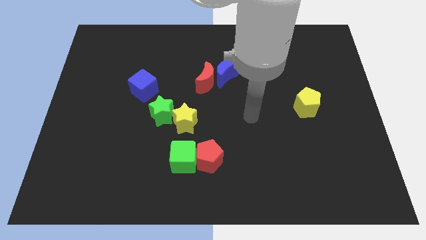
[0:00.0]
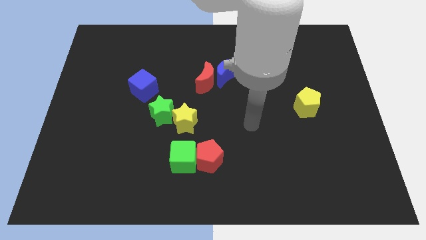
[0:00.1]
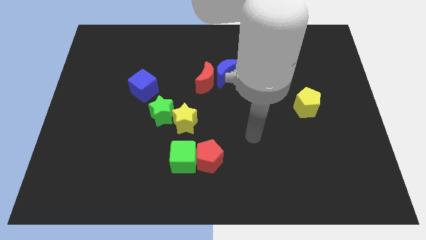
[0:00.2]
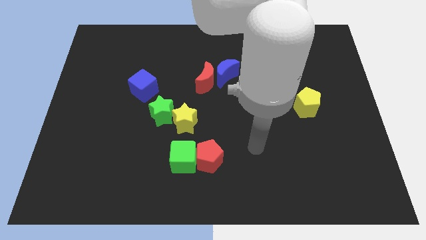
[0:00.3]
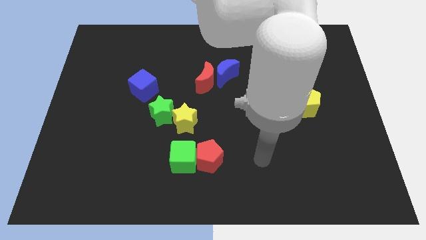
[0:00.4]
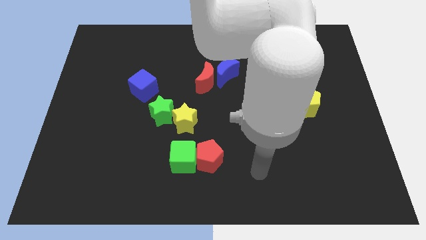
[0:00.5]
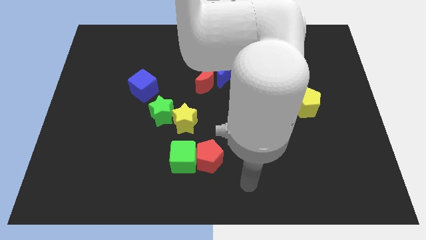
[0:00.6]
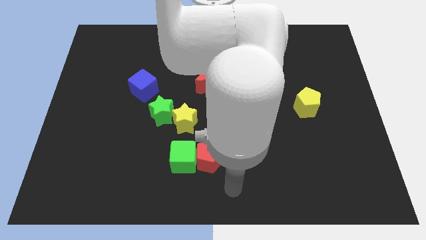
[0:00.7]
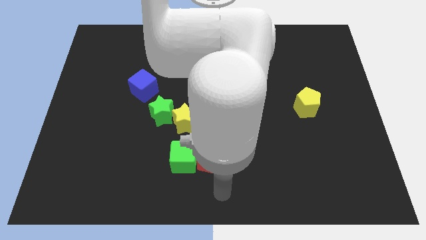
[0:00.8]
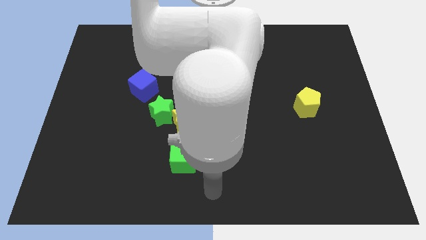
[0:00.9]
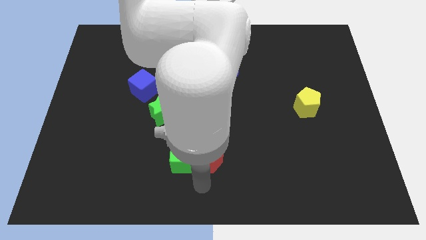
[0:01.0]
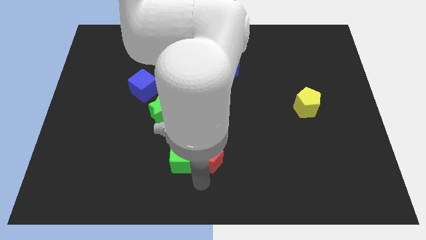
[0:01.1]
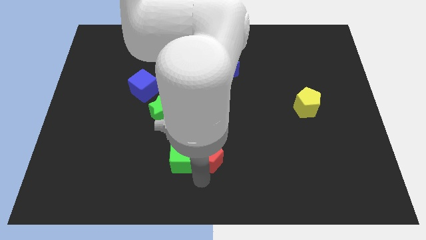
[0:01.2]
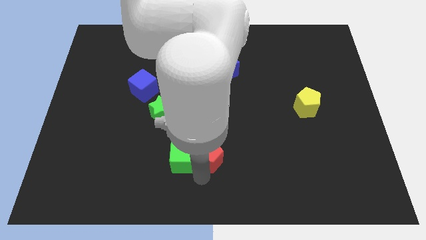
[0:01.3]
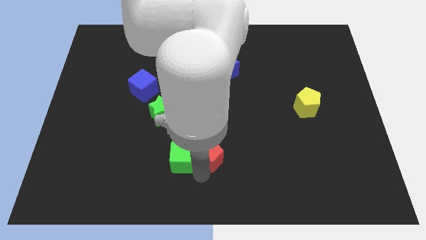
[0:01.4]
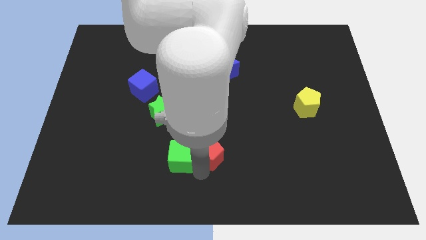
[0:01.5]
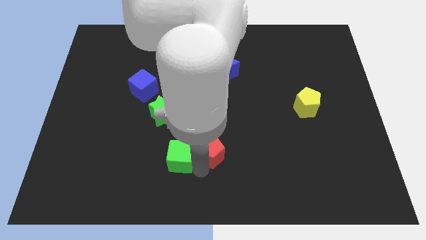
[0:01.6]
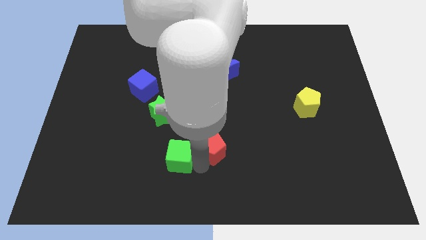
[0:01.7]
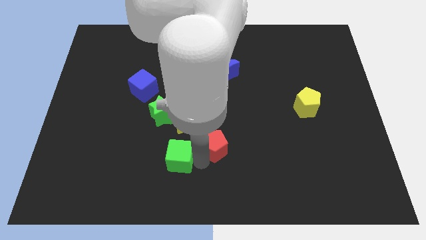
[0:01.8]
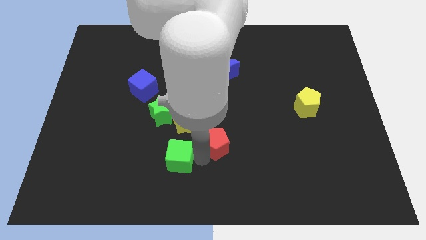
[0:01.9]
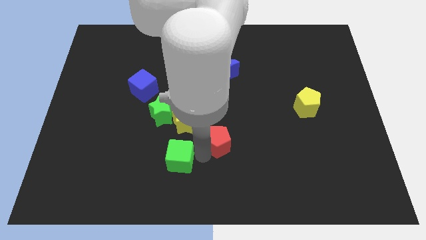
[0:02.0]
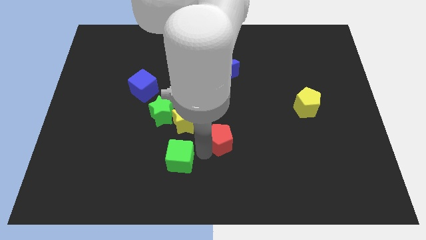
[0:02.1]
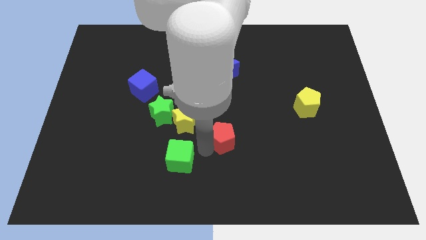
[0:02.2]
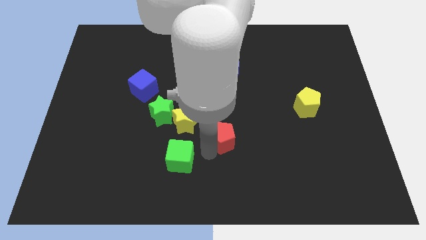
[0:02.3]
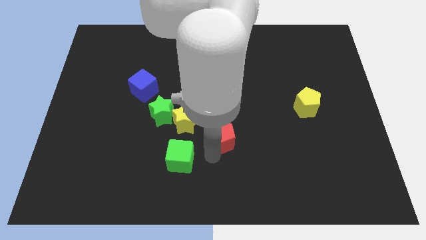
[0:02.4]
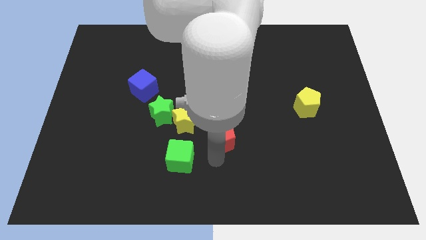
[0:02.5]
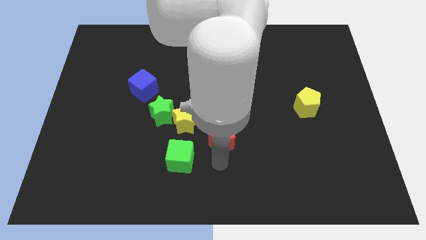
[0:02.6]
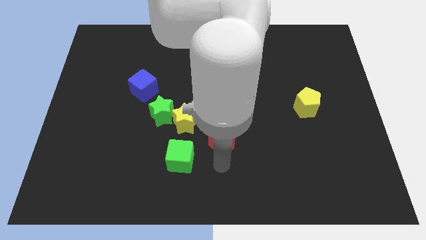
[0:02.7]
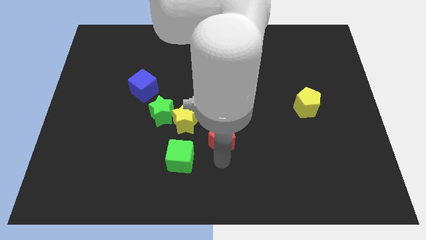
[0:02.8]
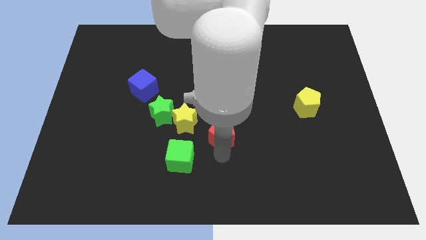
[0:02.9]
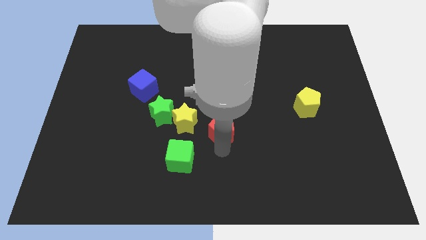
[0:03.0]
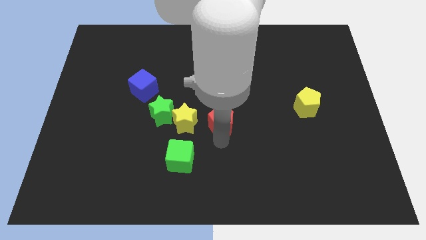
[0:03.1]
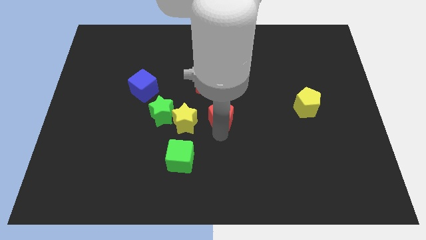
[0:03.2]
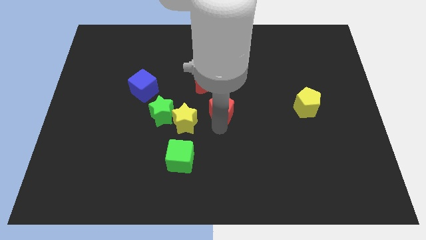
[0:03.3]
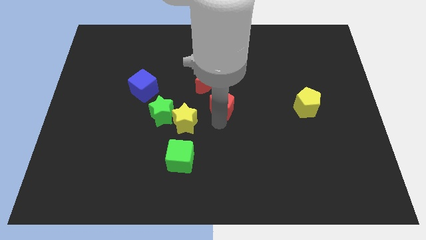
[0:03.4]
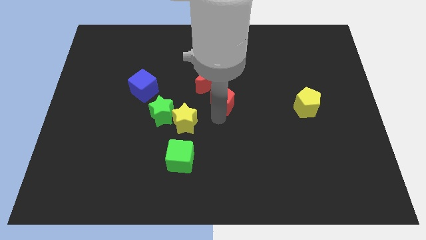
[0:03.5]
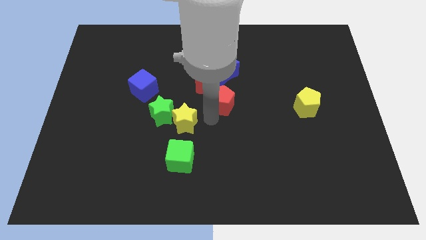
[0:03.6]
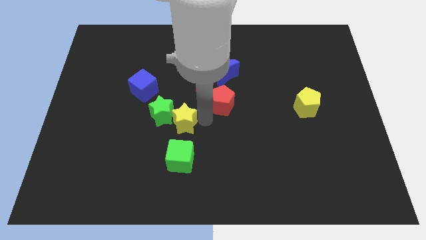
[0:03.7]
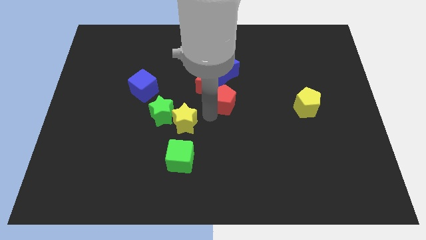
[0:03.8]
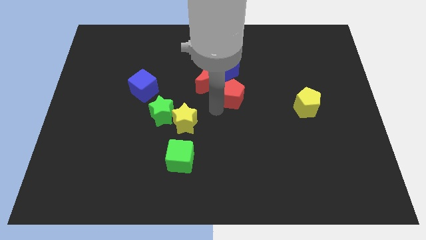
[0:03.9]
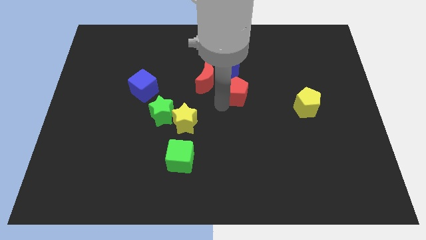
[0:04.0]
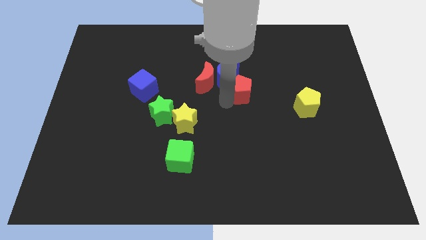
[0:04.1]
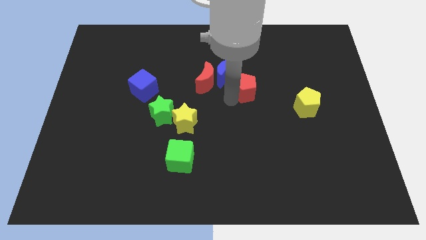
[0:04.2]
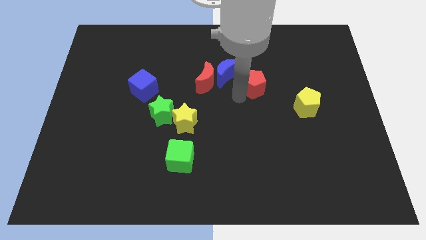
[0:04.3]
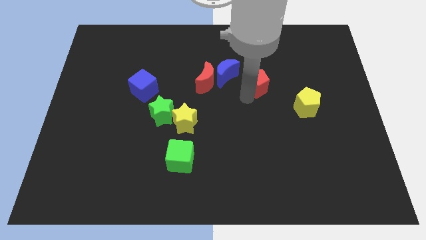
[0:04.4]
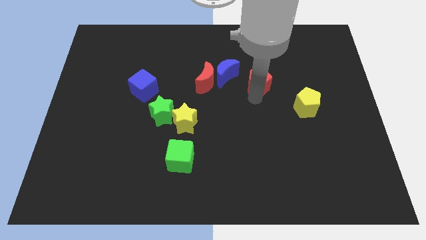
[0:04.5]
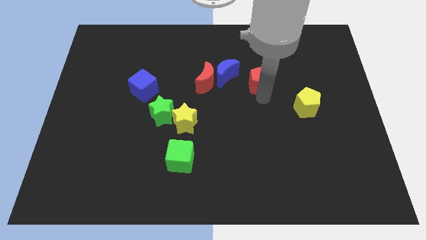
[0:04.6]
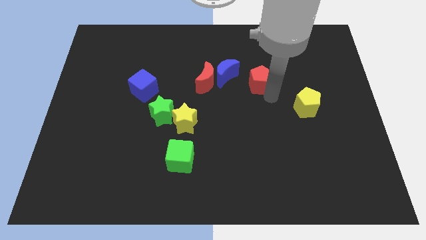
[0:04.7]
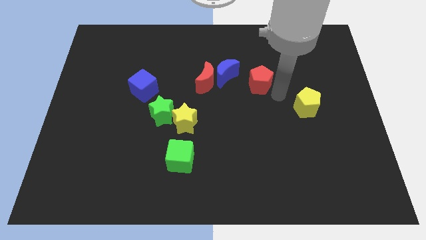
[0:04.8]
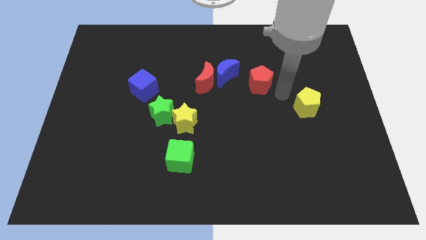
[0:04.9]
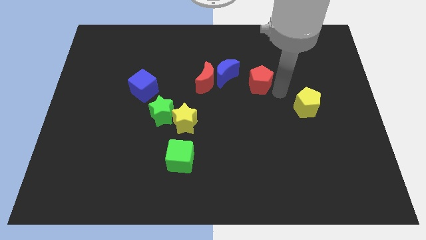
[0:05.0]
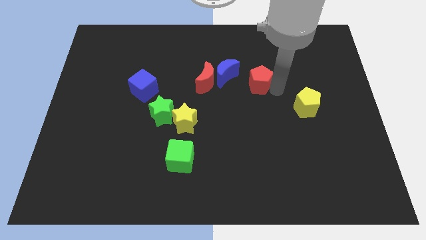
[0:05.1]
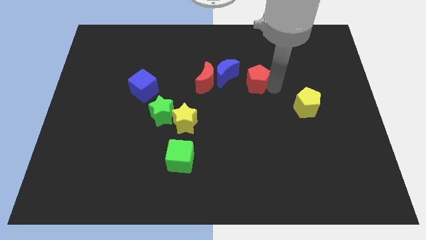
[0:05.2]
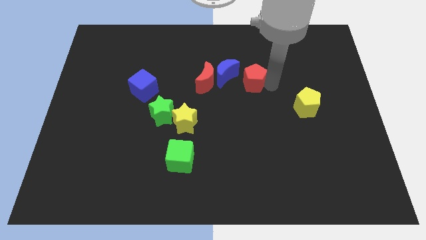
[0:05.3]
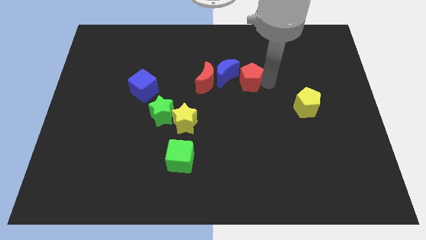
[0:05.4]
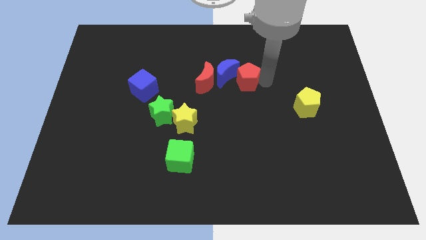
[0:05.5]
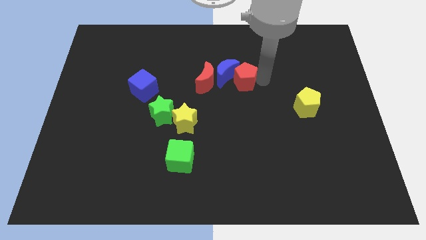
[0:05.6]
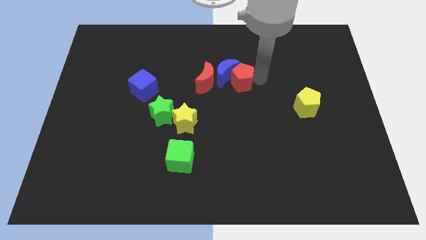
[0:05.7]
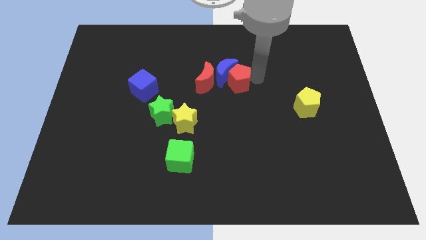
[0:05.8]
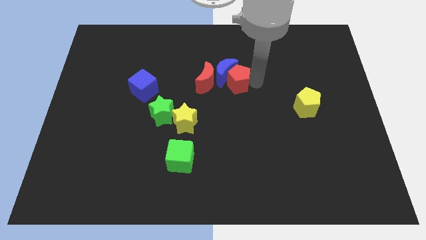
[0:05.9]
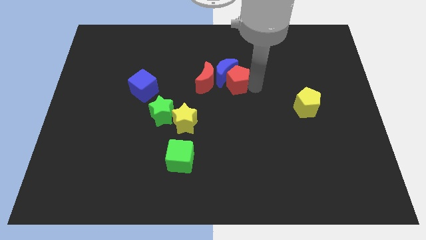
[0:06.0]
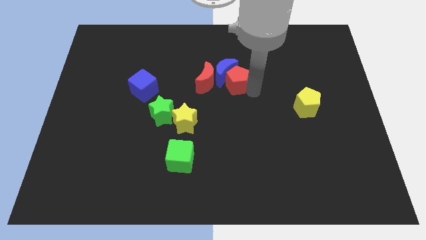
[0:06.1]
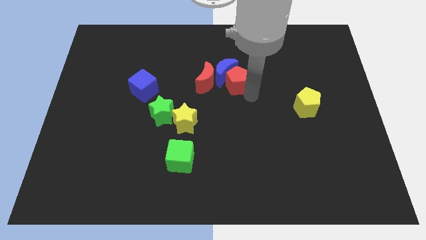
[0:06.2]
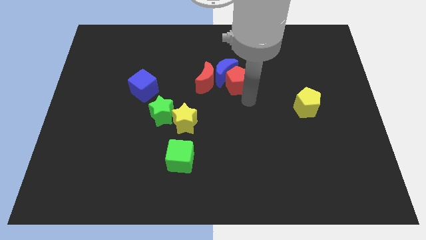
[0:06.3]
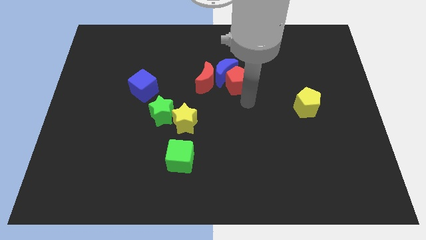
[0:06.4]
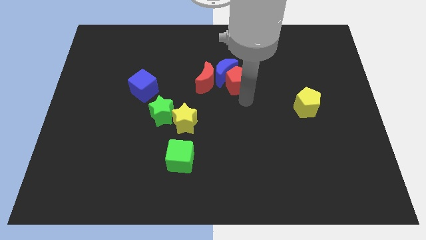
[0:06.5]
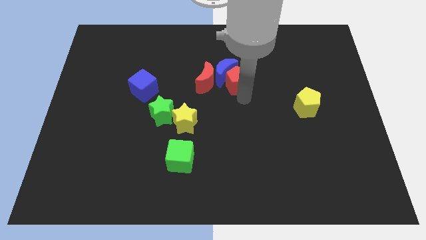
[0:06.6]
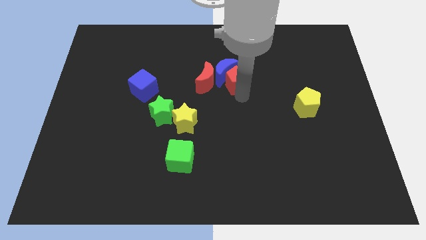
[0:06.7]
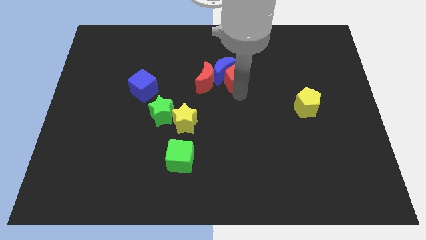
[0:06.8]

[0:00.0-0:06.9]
put the red pentagon to the top right side of the red moon
